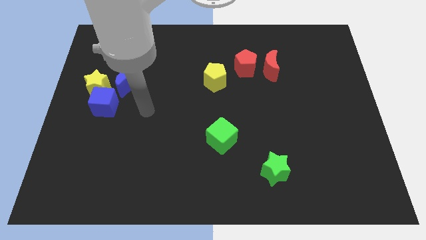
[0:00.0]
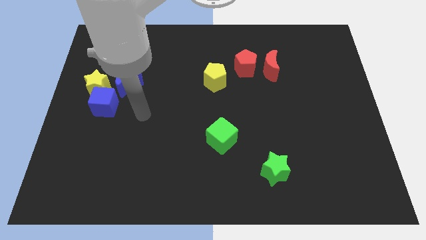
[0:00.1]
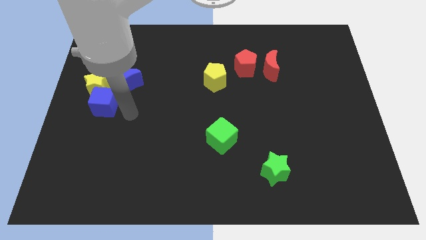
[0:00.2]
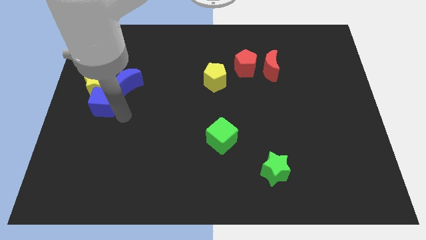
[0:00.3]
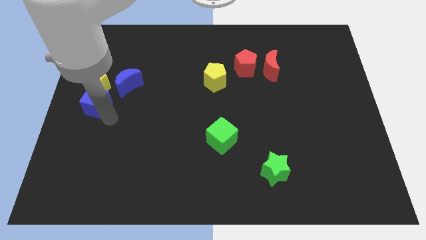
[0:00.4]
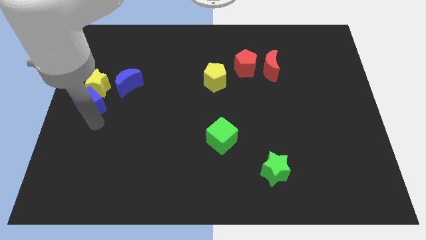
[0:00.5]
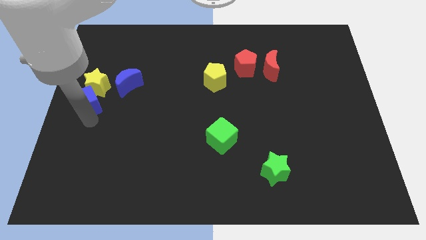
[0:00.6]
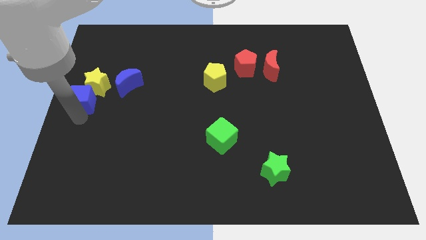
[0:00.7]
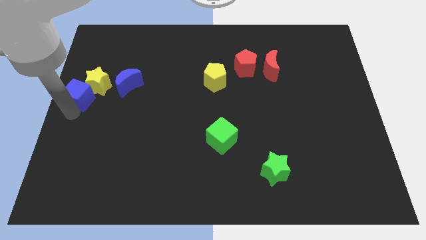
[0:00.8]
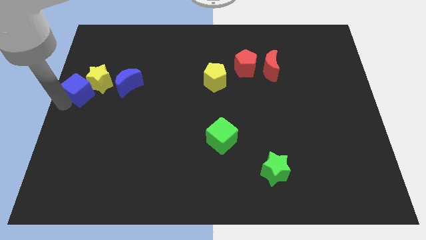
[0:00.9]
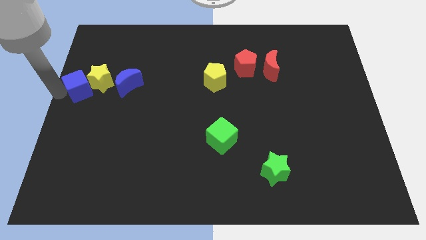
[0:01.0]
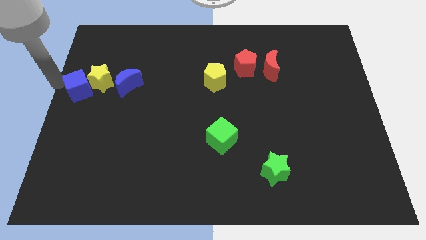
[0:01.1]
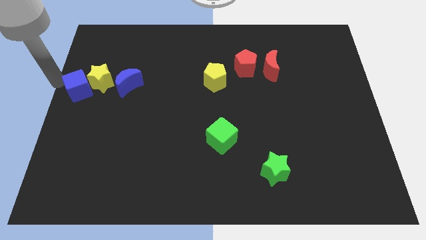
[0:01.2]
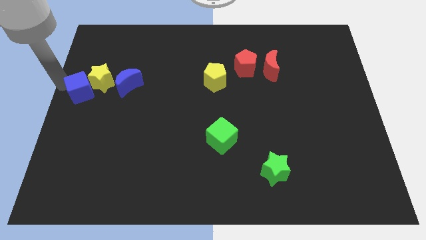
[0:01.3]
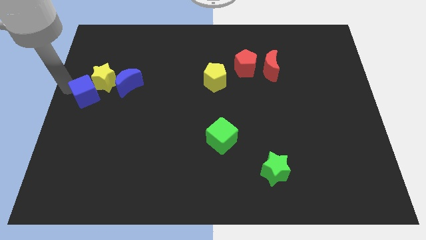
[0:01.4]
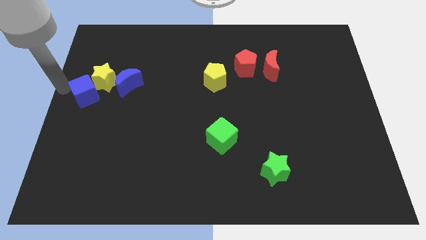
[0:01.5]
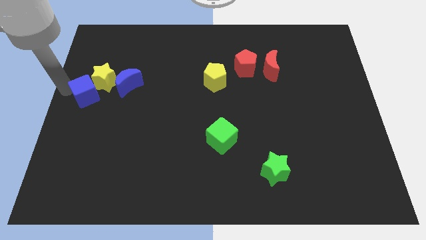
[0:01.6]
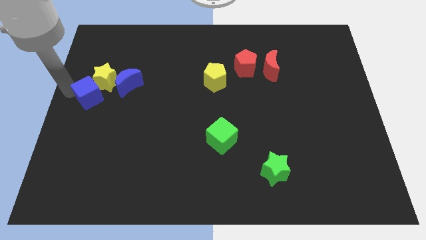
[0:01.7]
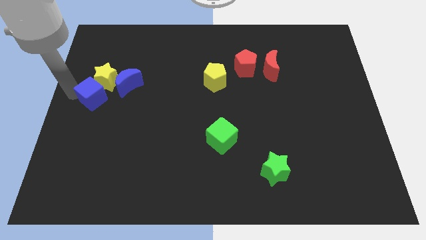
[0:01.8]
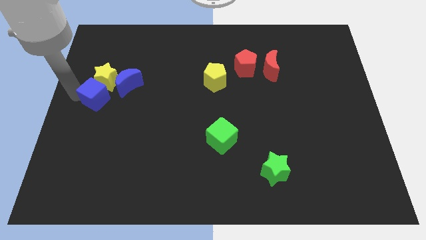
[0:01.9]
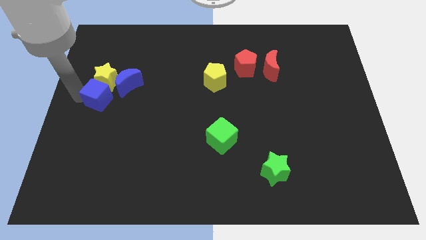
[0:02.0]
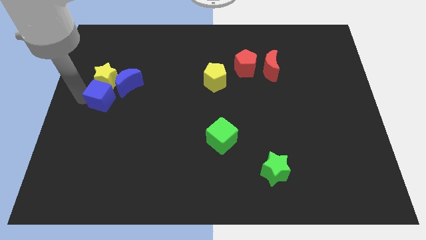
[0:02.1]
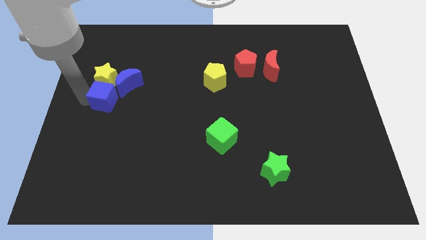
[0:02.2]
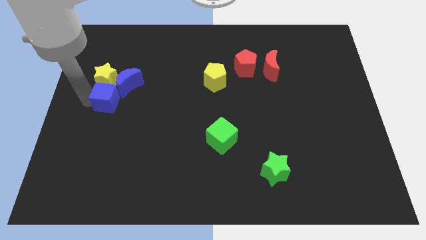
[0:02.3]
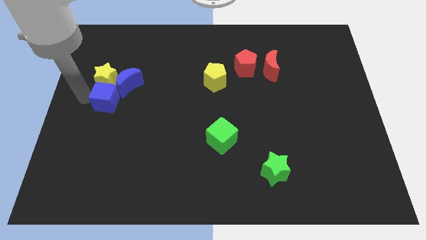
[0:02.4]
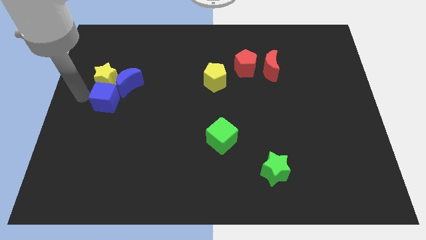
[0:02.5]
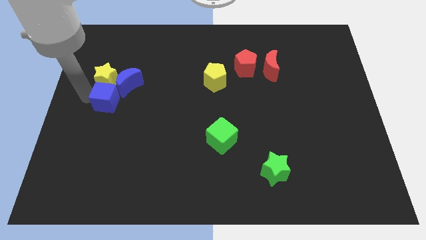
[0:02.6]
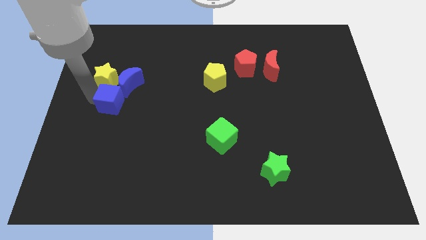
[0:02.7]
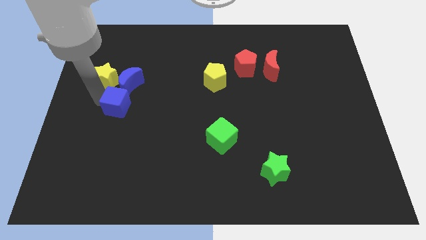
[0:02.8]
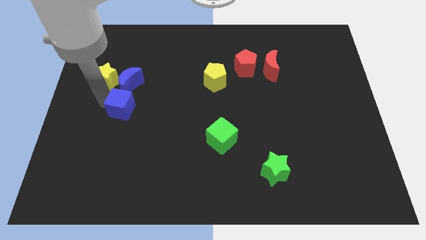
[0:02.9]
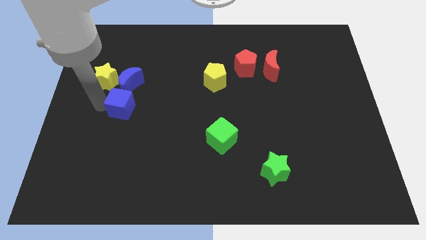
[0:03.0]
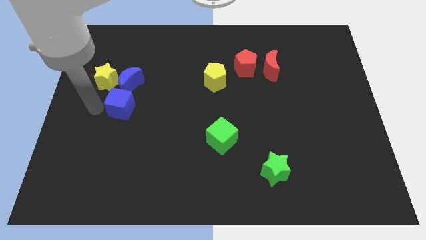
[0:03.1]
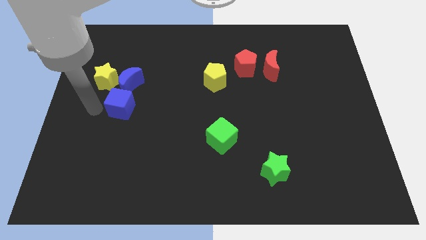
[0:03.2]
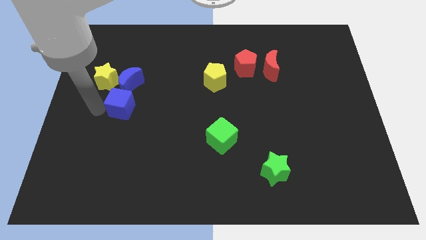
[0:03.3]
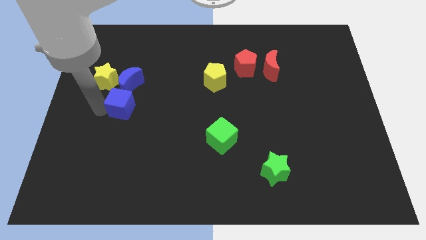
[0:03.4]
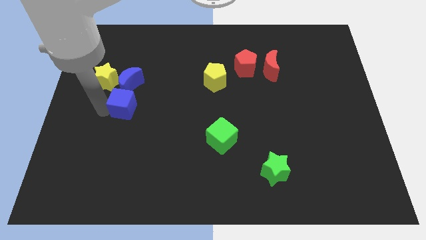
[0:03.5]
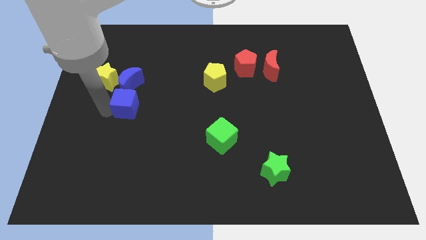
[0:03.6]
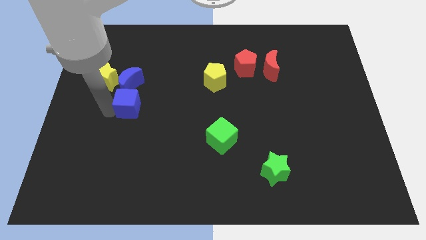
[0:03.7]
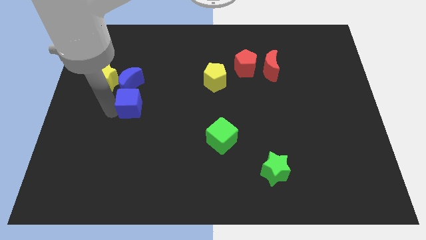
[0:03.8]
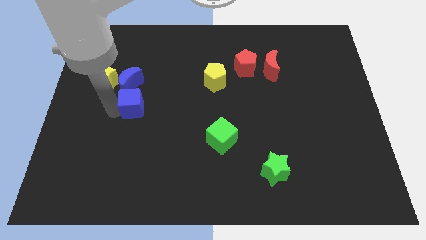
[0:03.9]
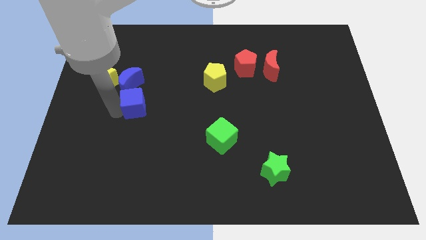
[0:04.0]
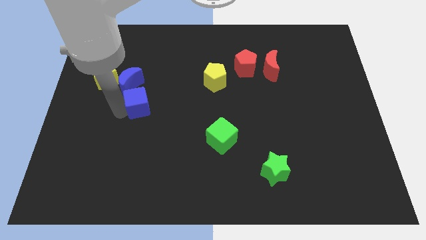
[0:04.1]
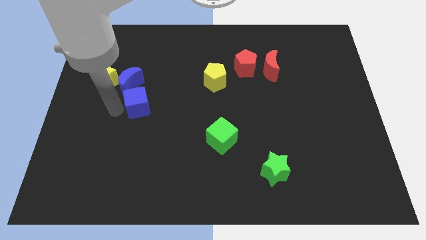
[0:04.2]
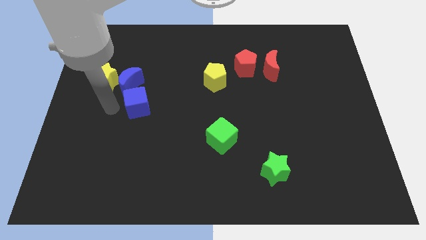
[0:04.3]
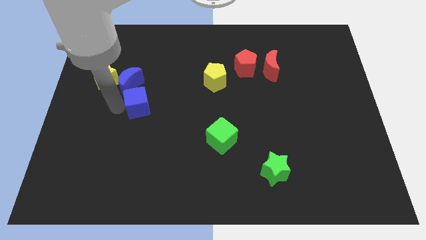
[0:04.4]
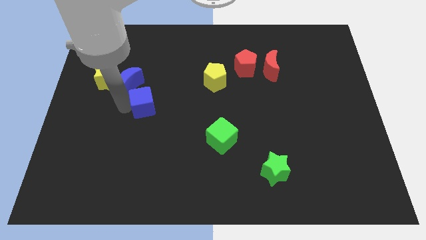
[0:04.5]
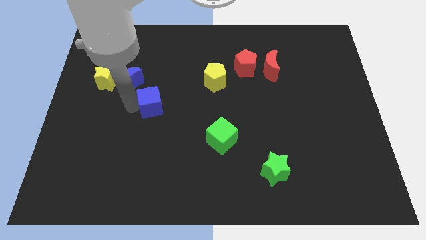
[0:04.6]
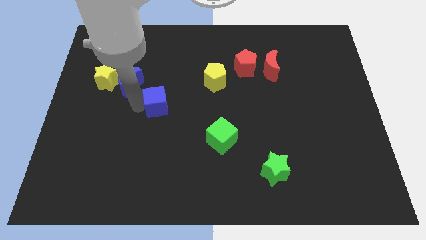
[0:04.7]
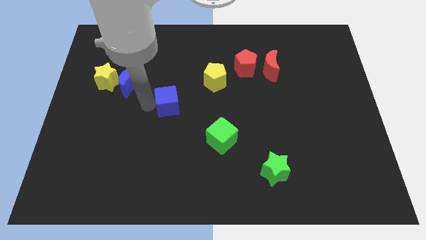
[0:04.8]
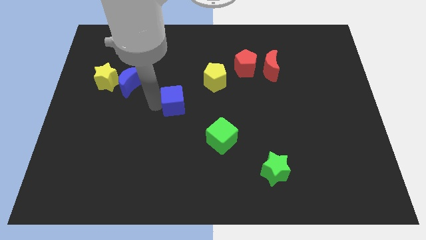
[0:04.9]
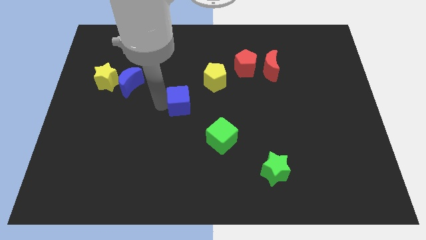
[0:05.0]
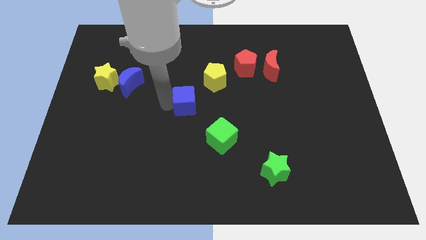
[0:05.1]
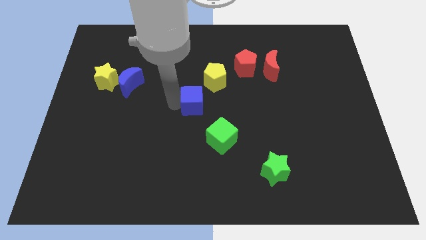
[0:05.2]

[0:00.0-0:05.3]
push the blue cube to the right

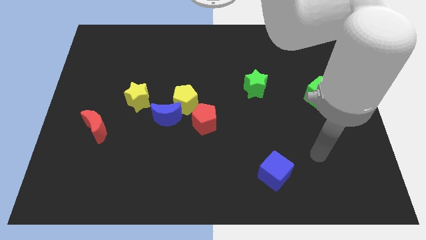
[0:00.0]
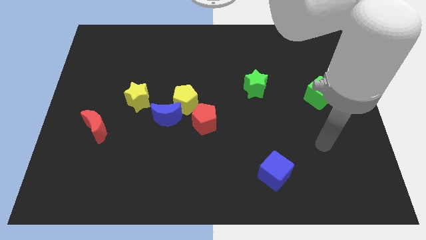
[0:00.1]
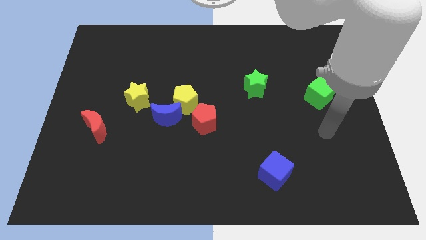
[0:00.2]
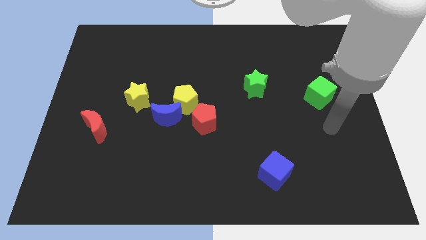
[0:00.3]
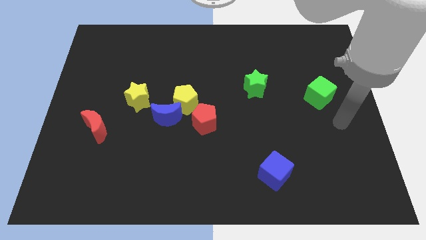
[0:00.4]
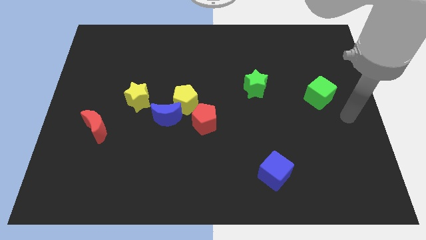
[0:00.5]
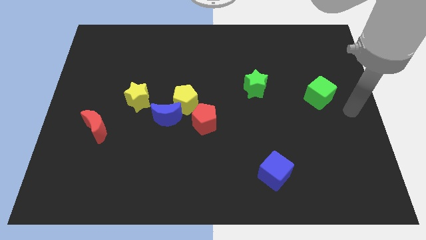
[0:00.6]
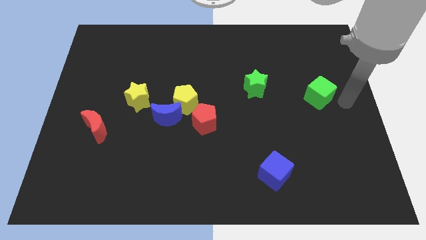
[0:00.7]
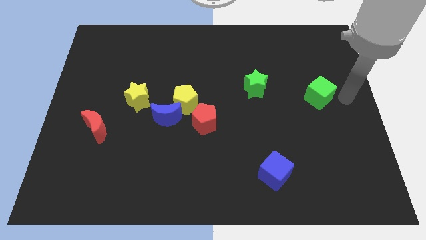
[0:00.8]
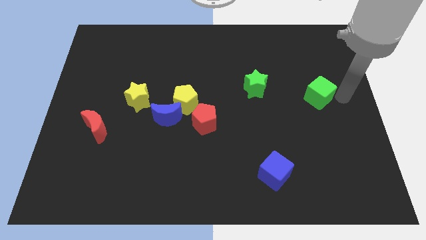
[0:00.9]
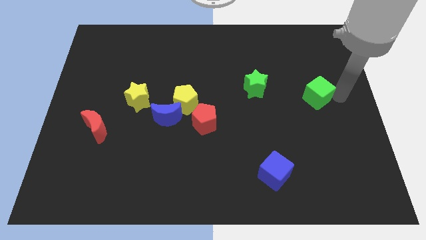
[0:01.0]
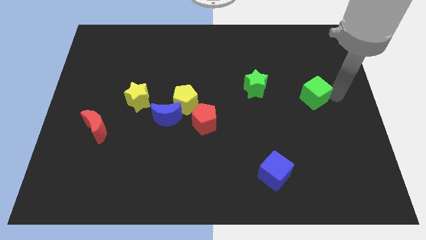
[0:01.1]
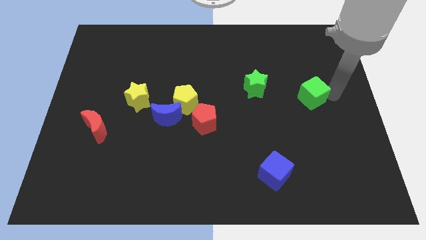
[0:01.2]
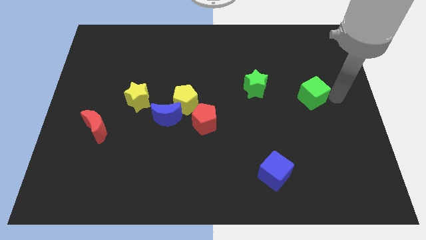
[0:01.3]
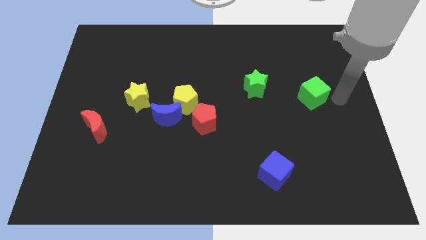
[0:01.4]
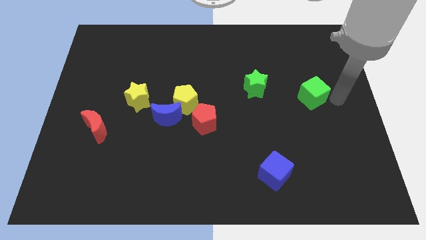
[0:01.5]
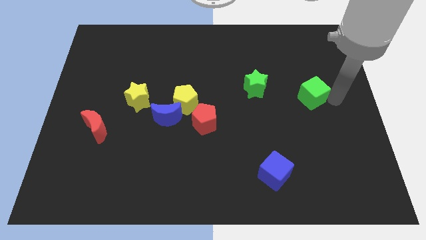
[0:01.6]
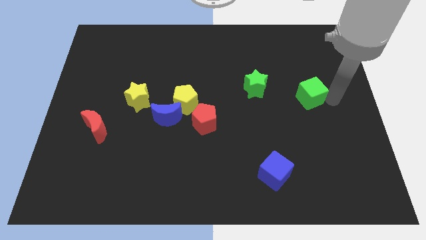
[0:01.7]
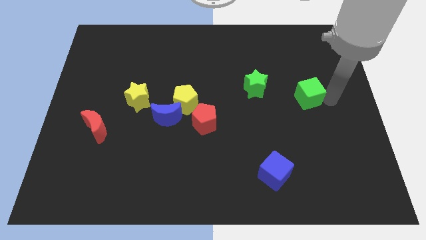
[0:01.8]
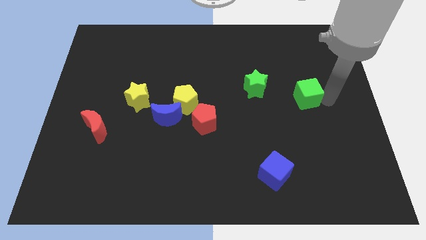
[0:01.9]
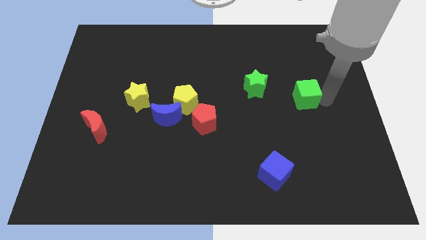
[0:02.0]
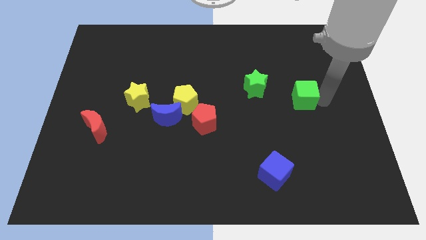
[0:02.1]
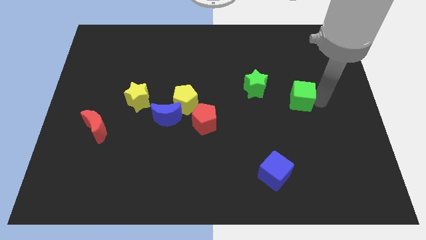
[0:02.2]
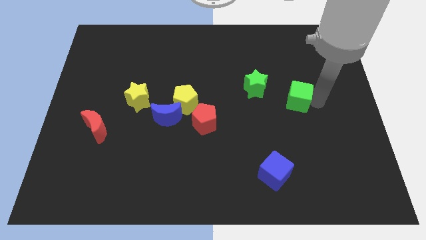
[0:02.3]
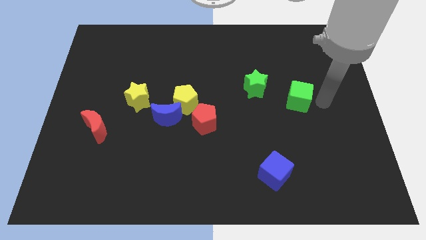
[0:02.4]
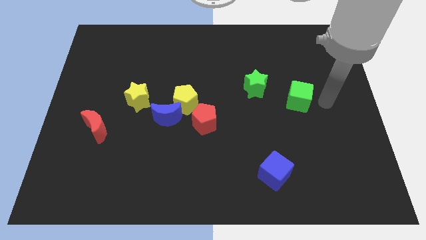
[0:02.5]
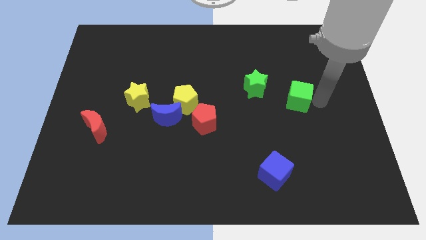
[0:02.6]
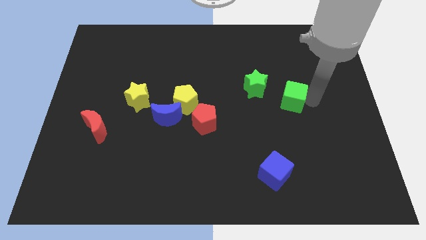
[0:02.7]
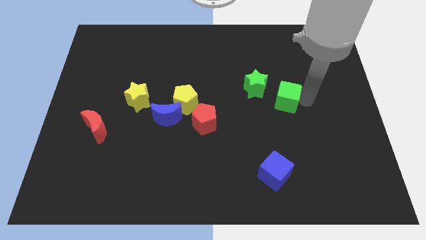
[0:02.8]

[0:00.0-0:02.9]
push the green cube slightly left
